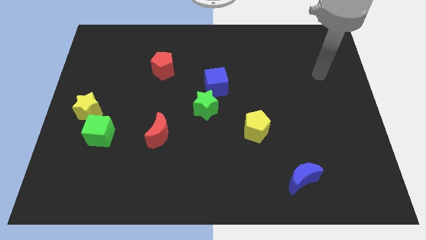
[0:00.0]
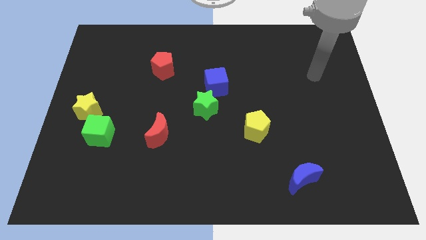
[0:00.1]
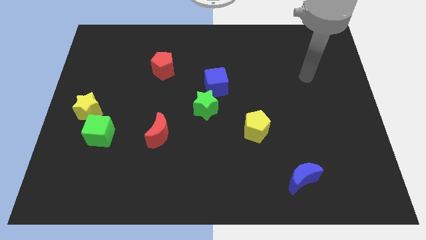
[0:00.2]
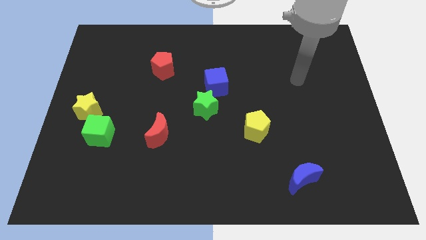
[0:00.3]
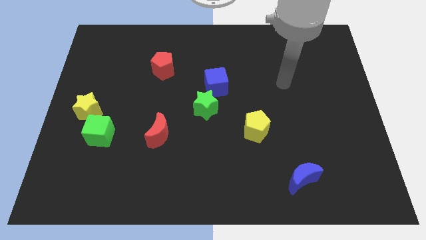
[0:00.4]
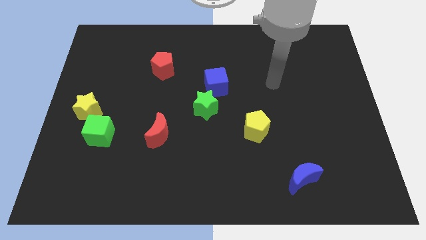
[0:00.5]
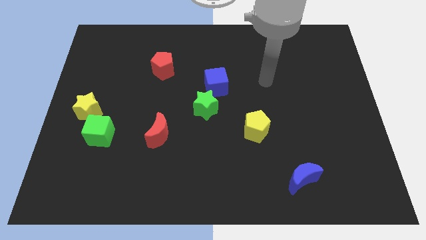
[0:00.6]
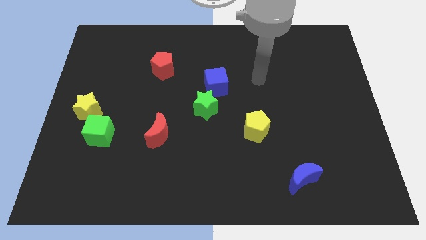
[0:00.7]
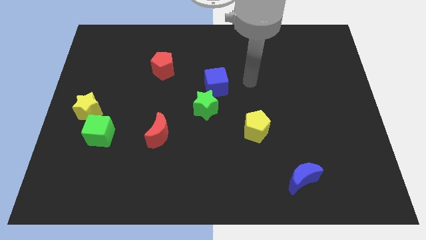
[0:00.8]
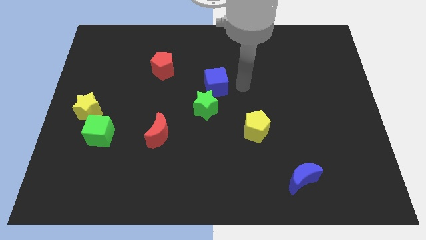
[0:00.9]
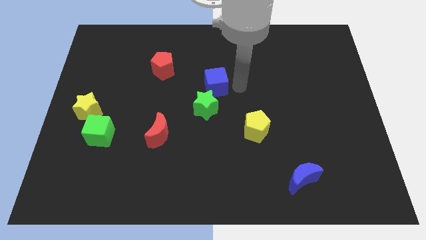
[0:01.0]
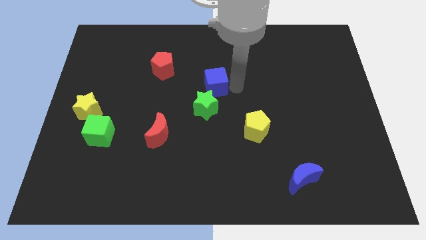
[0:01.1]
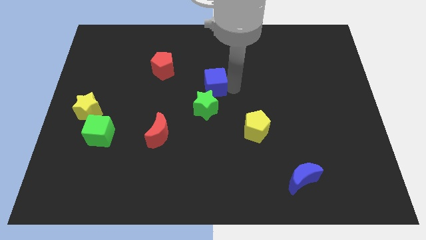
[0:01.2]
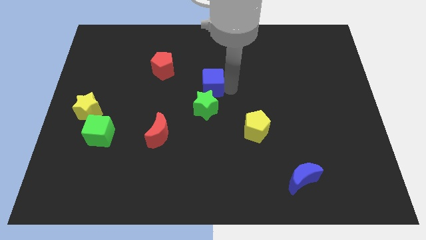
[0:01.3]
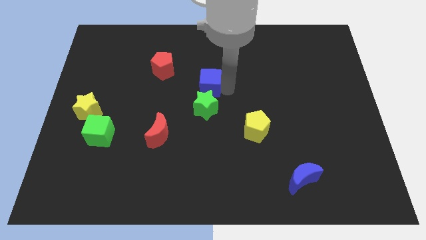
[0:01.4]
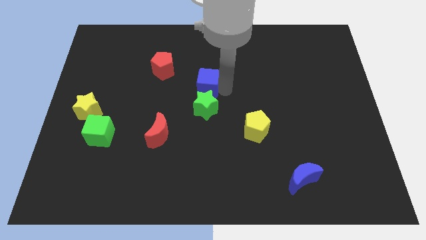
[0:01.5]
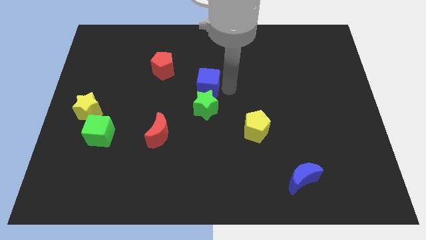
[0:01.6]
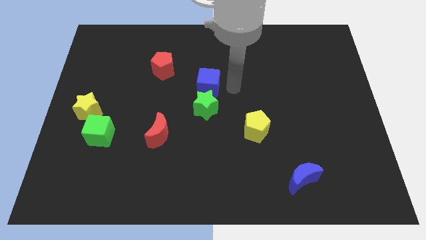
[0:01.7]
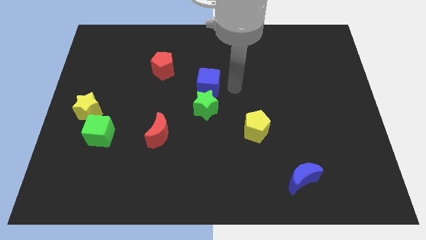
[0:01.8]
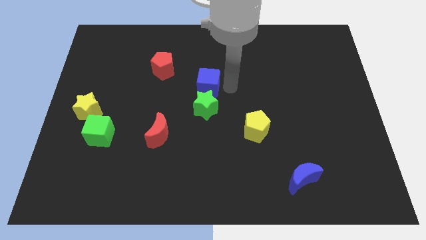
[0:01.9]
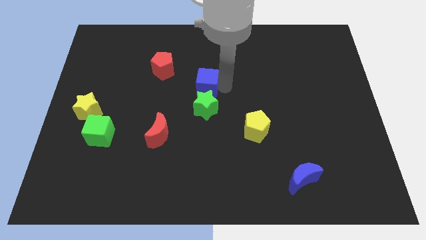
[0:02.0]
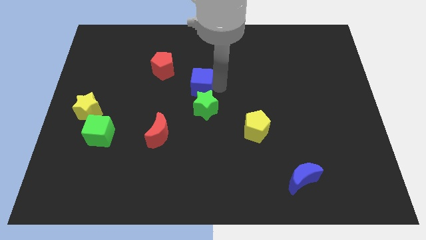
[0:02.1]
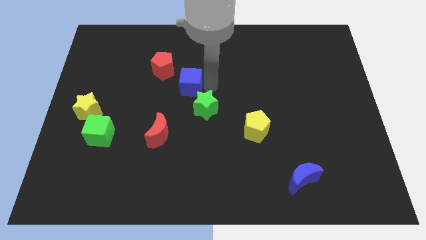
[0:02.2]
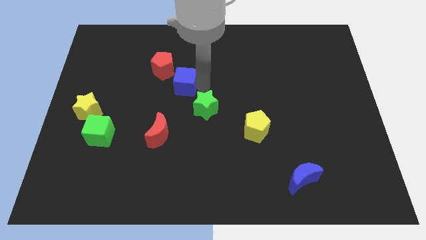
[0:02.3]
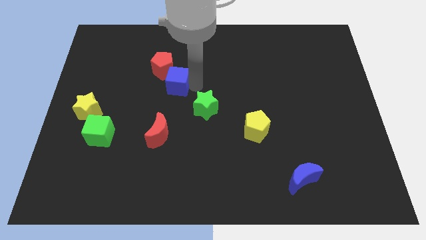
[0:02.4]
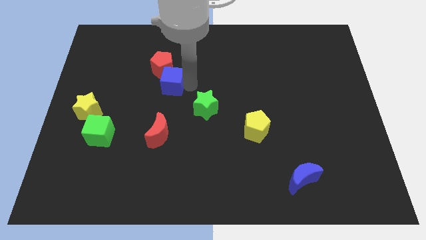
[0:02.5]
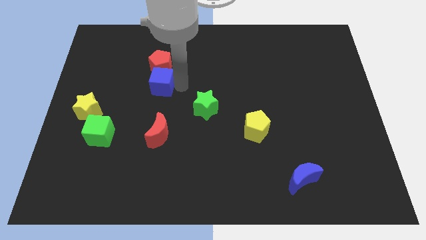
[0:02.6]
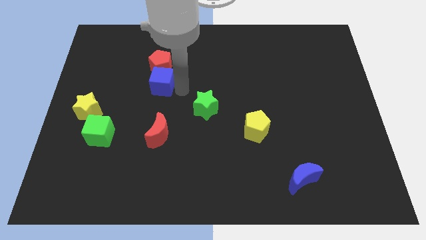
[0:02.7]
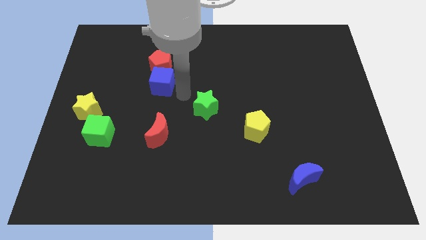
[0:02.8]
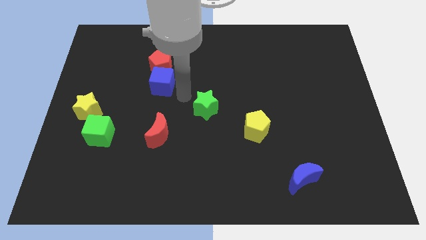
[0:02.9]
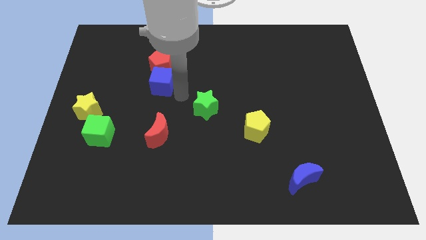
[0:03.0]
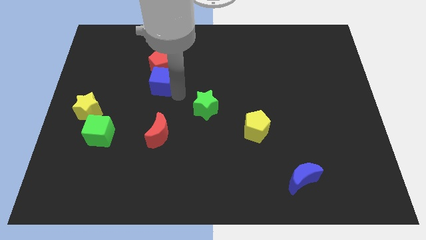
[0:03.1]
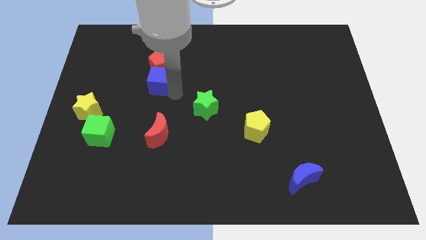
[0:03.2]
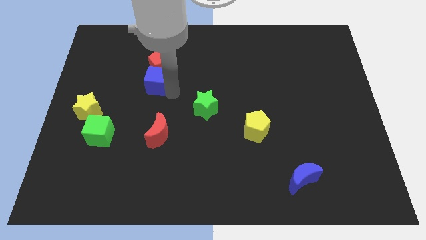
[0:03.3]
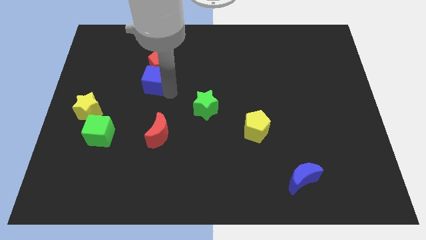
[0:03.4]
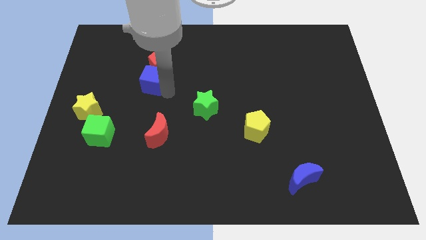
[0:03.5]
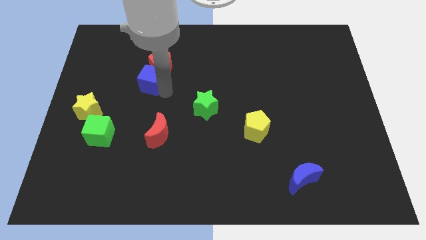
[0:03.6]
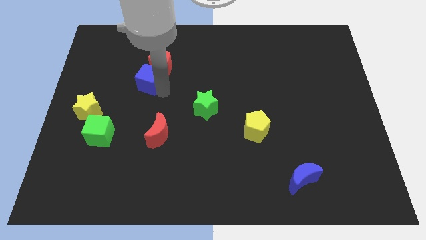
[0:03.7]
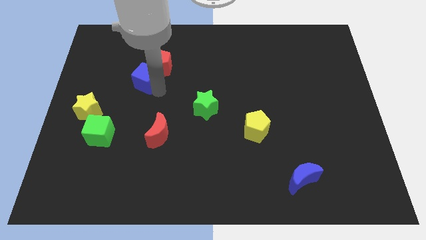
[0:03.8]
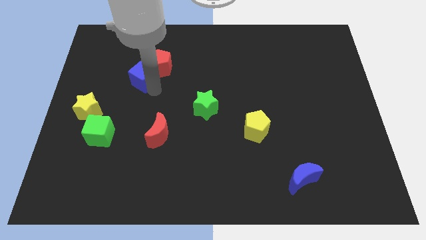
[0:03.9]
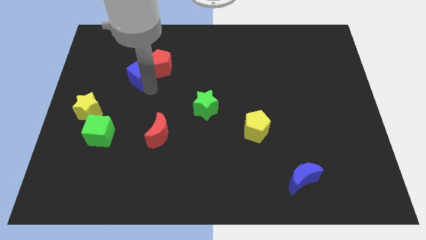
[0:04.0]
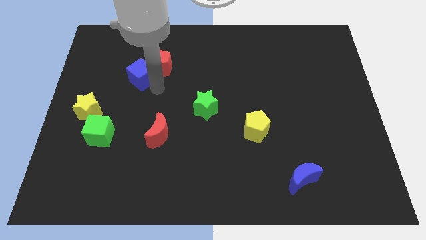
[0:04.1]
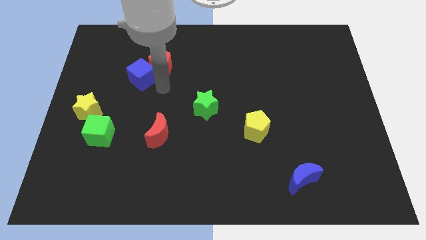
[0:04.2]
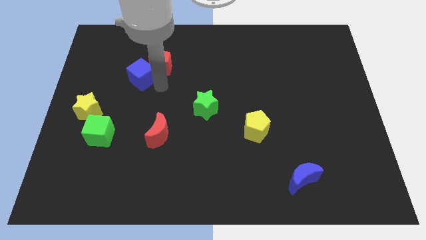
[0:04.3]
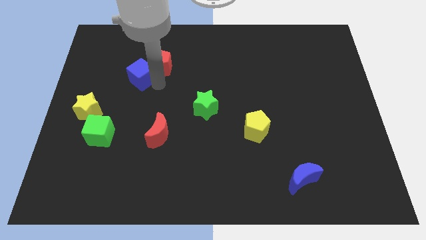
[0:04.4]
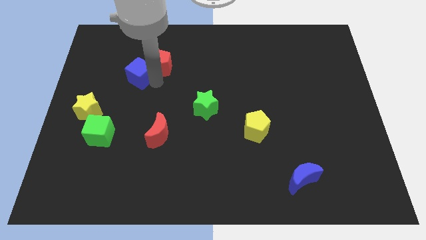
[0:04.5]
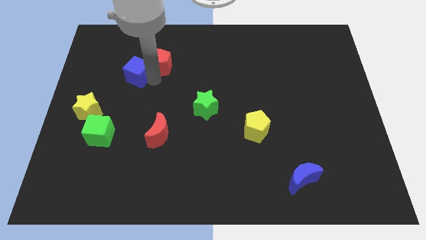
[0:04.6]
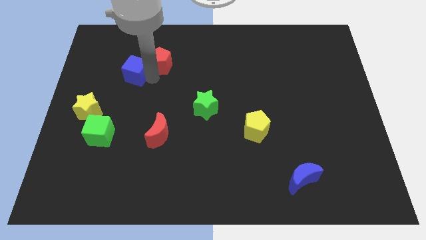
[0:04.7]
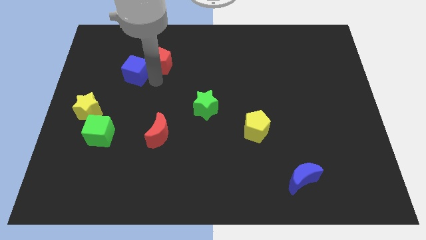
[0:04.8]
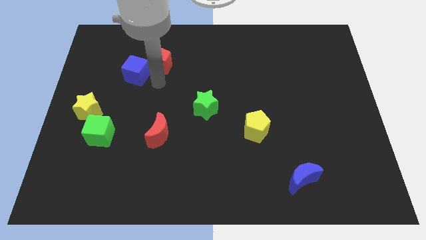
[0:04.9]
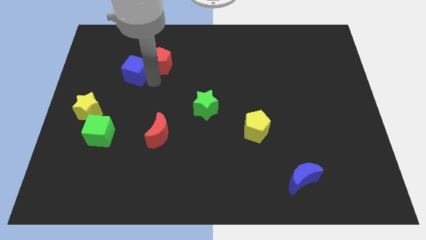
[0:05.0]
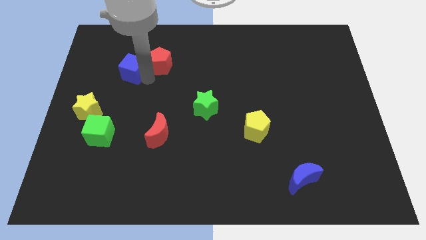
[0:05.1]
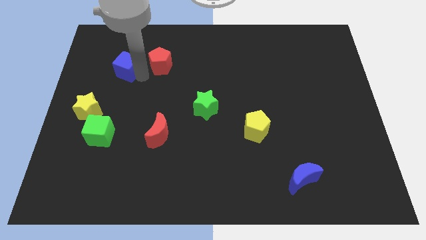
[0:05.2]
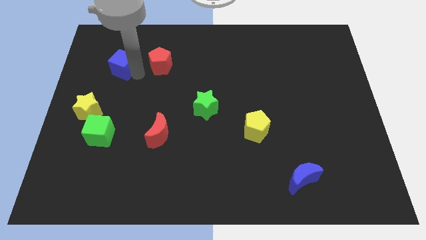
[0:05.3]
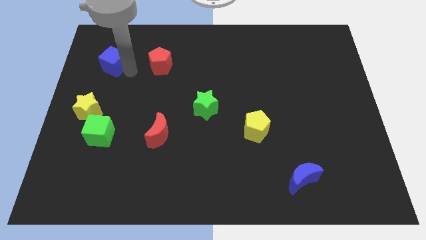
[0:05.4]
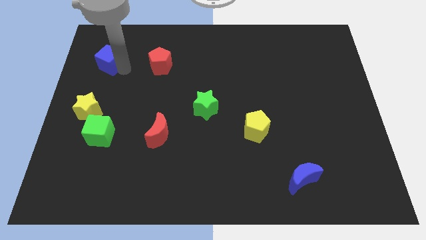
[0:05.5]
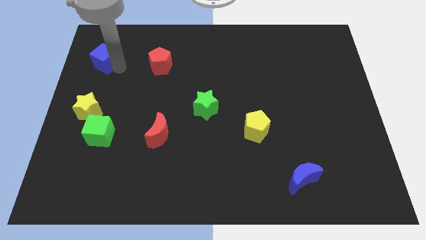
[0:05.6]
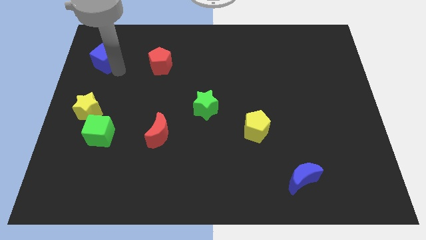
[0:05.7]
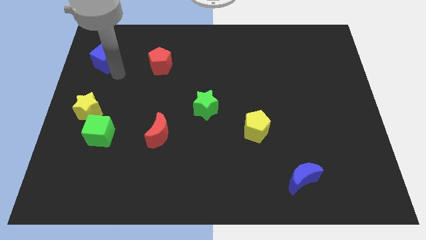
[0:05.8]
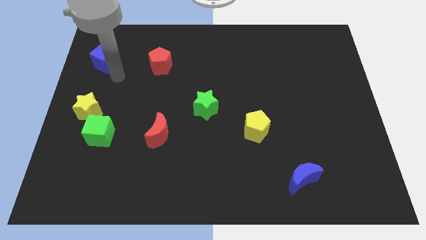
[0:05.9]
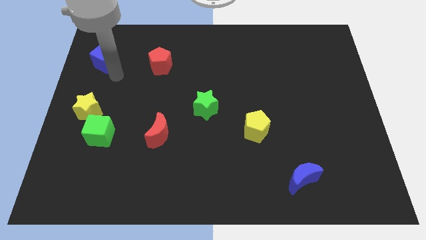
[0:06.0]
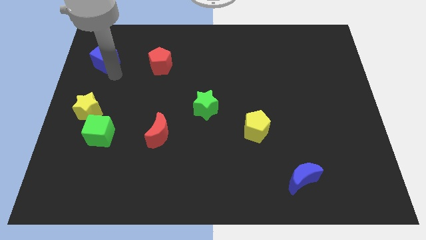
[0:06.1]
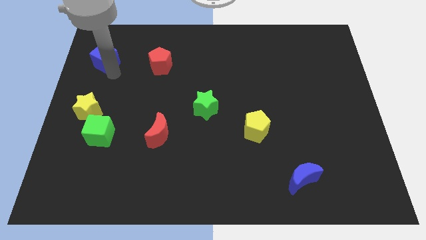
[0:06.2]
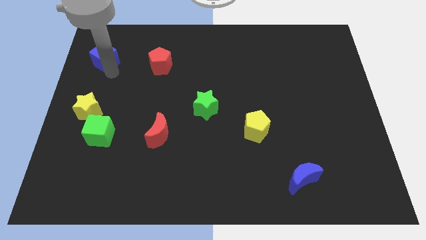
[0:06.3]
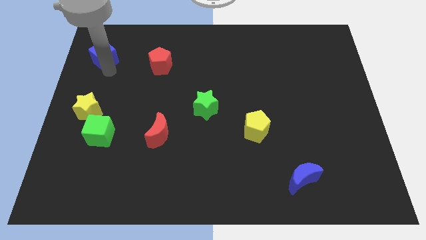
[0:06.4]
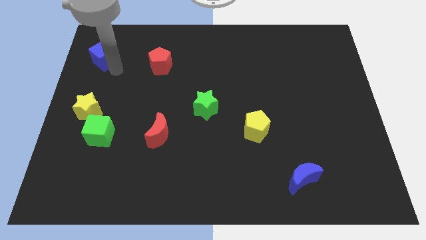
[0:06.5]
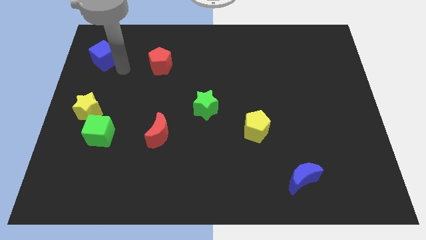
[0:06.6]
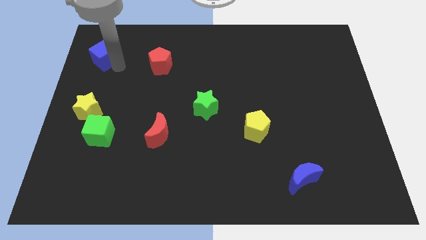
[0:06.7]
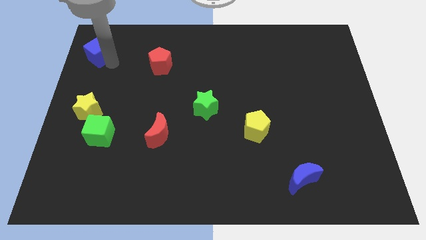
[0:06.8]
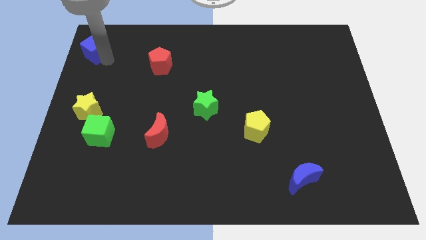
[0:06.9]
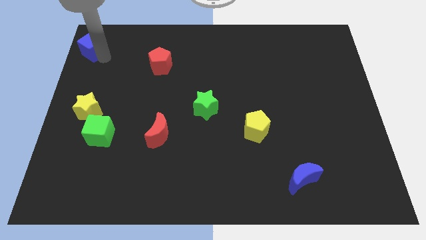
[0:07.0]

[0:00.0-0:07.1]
slide the blue cube to the top left
